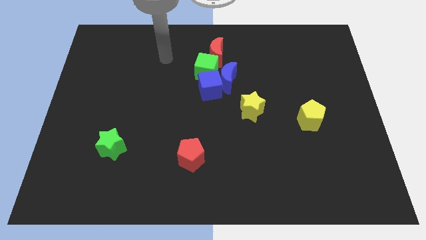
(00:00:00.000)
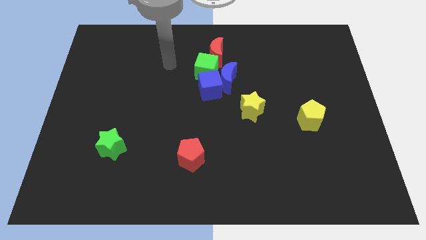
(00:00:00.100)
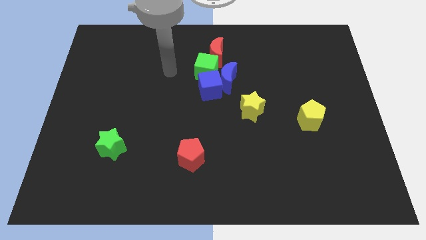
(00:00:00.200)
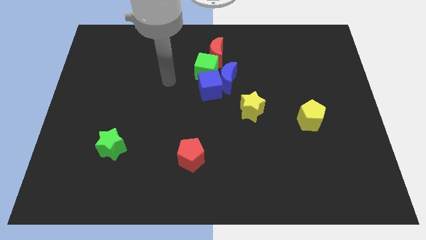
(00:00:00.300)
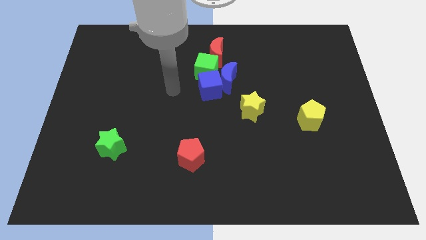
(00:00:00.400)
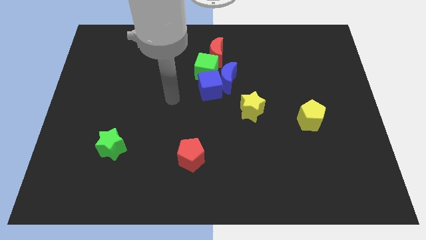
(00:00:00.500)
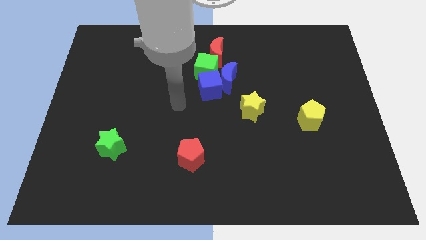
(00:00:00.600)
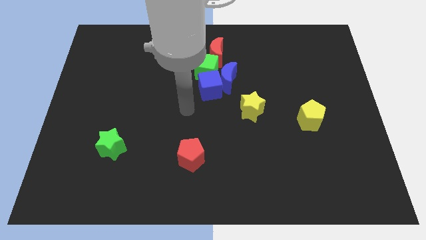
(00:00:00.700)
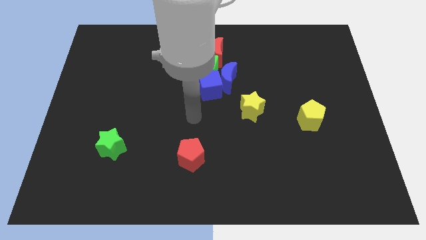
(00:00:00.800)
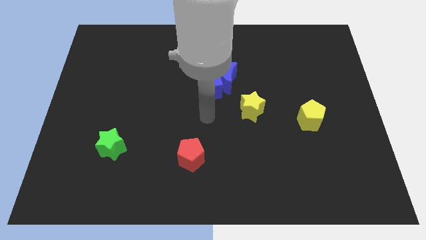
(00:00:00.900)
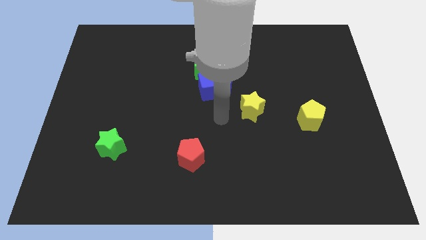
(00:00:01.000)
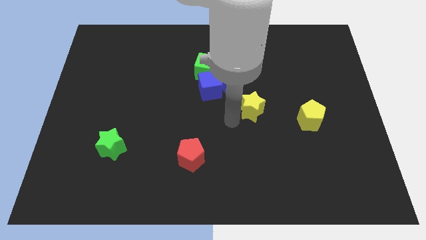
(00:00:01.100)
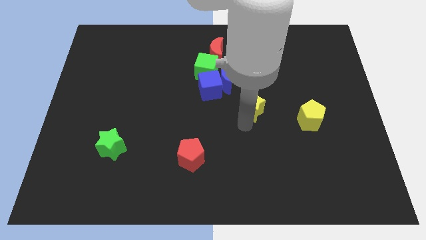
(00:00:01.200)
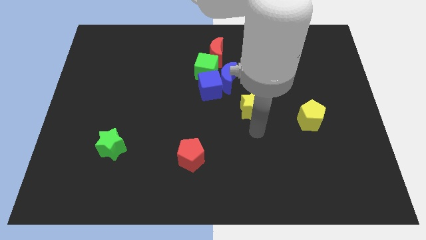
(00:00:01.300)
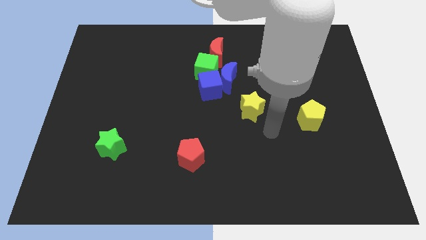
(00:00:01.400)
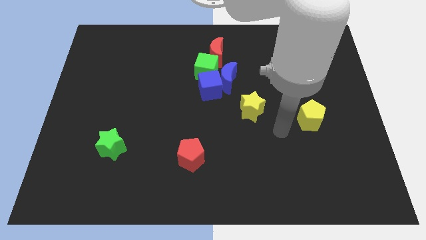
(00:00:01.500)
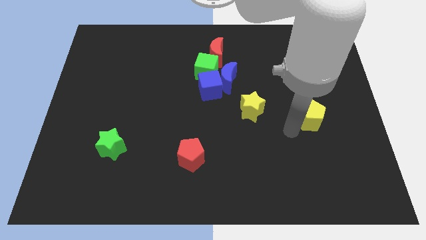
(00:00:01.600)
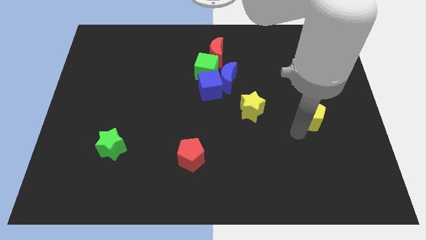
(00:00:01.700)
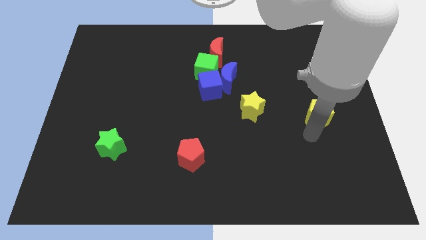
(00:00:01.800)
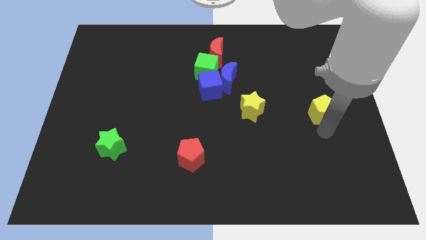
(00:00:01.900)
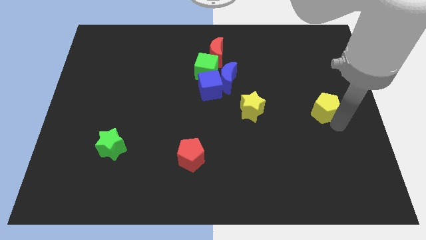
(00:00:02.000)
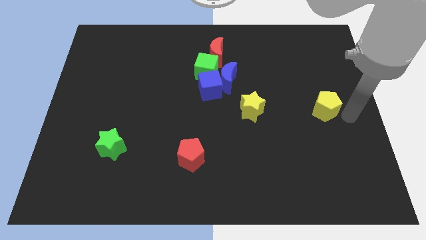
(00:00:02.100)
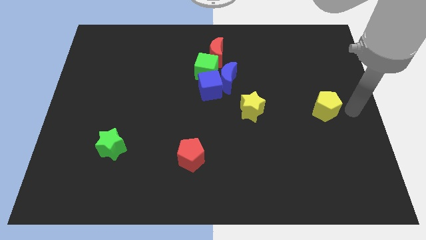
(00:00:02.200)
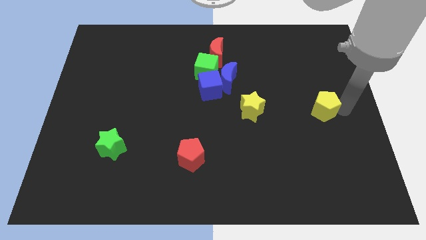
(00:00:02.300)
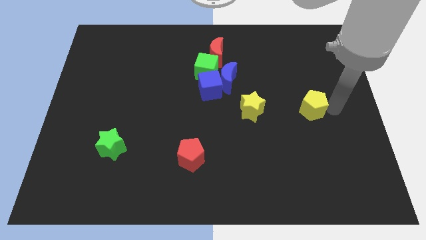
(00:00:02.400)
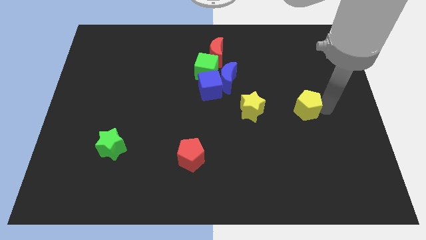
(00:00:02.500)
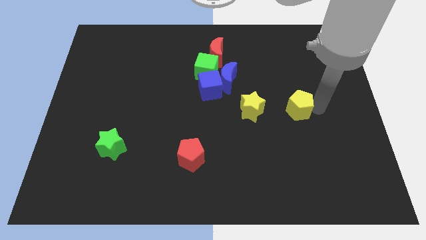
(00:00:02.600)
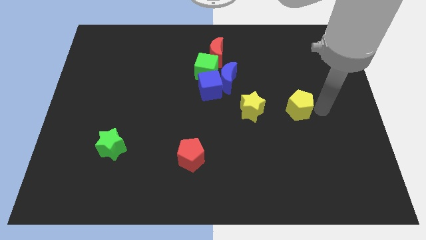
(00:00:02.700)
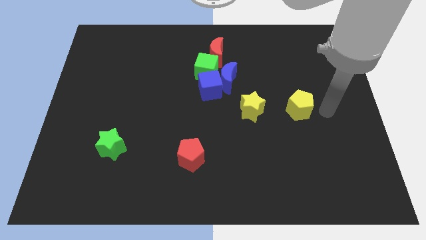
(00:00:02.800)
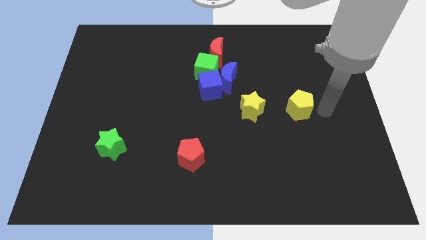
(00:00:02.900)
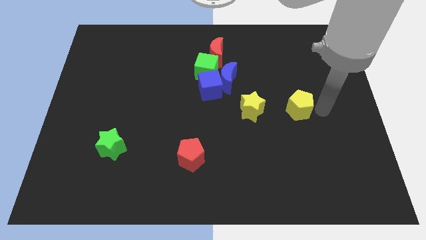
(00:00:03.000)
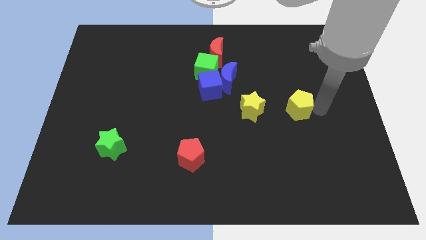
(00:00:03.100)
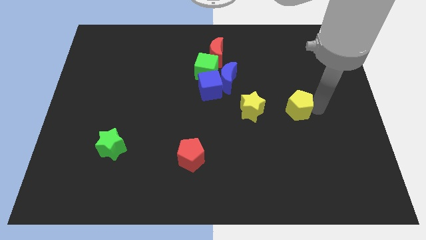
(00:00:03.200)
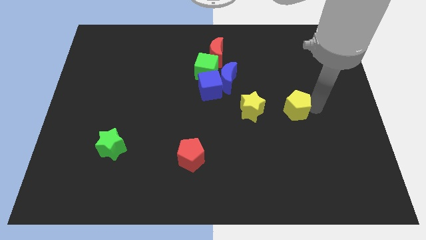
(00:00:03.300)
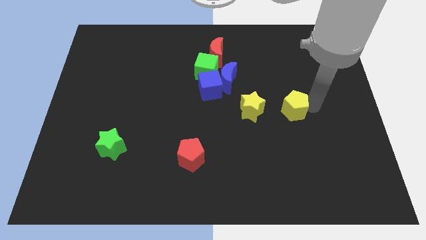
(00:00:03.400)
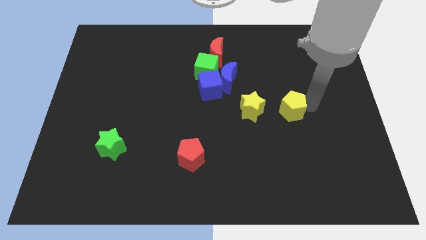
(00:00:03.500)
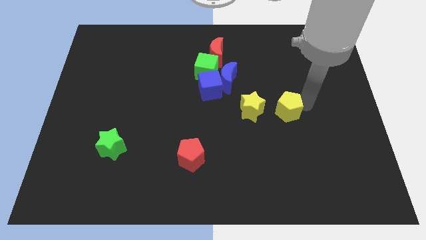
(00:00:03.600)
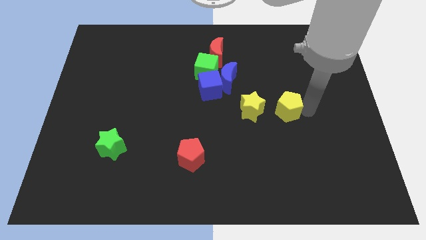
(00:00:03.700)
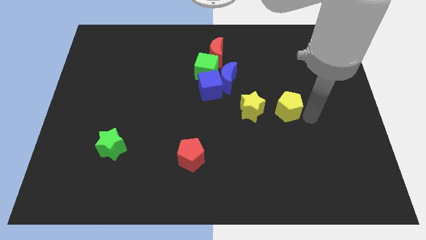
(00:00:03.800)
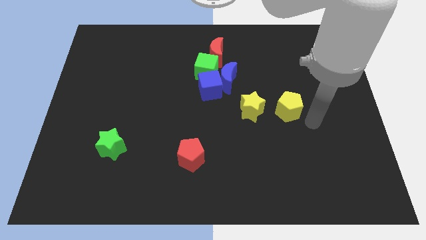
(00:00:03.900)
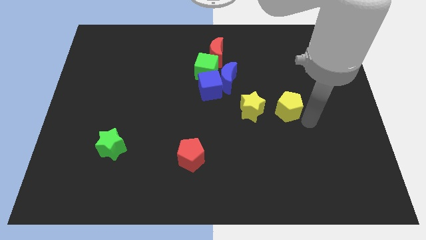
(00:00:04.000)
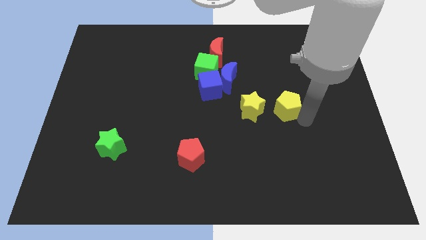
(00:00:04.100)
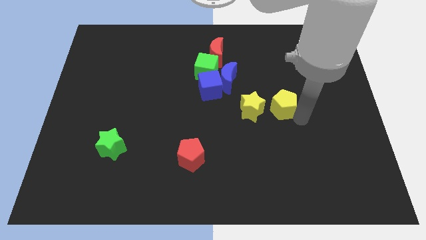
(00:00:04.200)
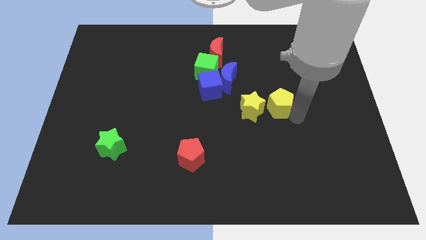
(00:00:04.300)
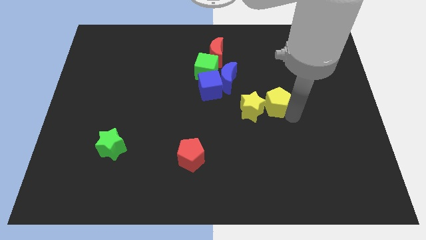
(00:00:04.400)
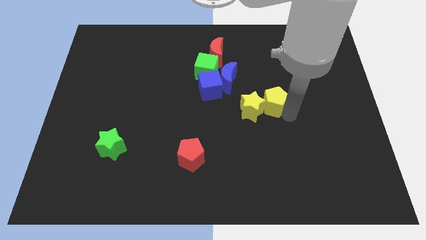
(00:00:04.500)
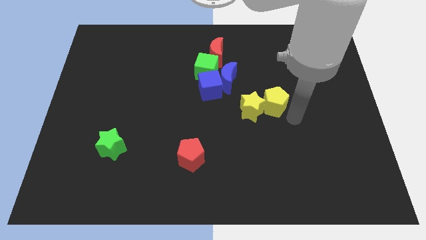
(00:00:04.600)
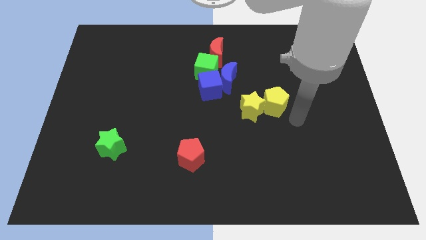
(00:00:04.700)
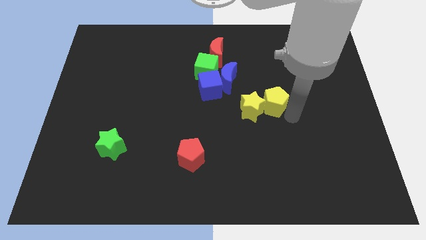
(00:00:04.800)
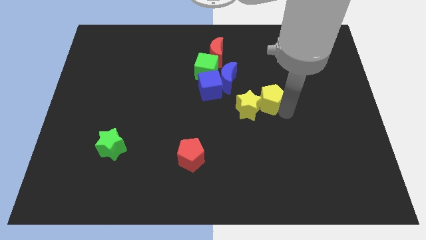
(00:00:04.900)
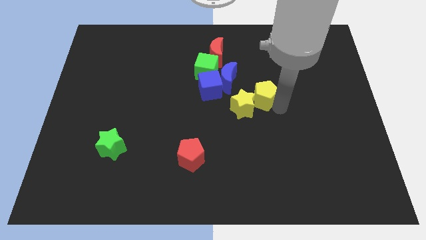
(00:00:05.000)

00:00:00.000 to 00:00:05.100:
put the yellow pentagon to the right side of the blue cube

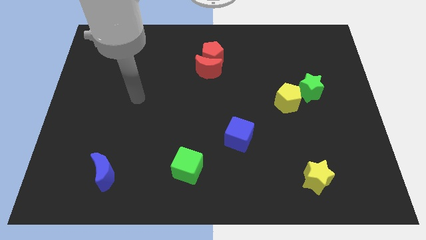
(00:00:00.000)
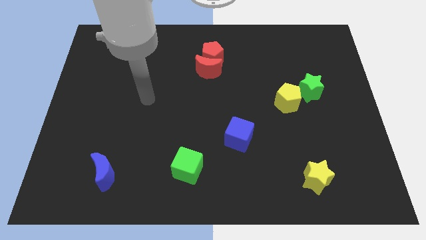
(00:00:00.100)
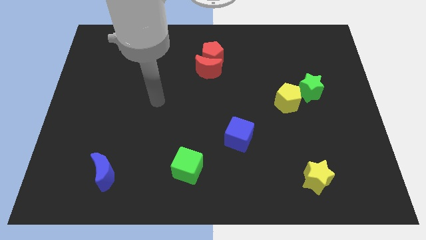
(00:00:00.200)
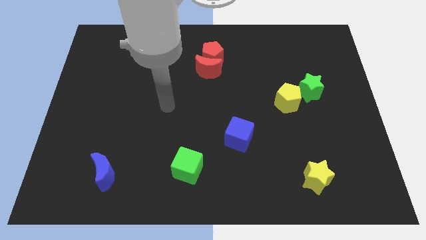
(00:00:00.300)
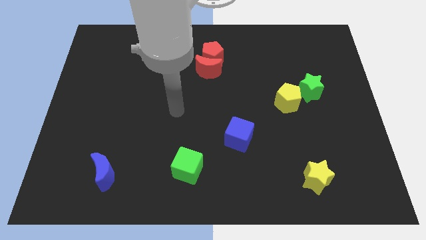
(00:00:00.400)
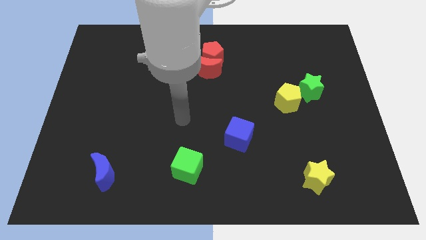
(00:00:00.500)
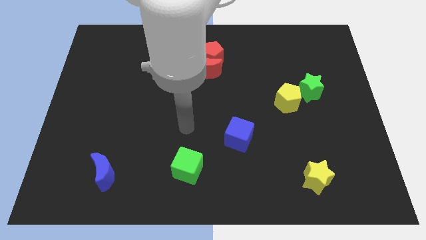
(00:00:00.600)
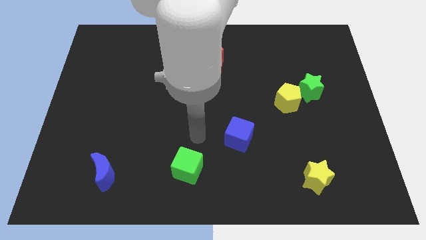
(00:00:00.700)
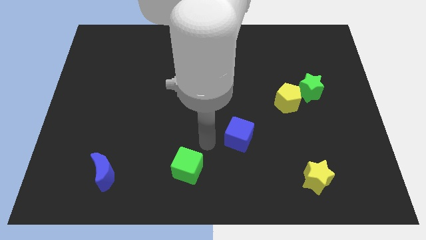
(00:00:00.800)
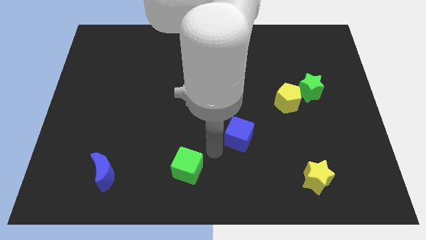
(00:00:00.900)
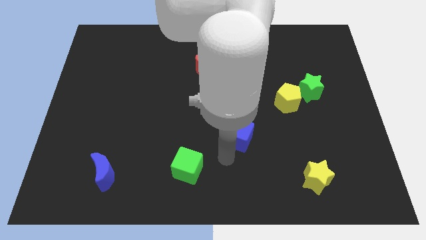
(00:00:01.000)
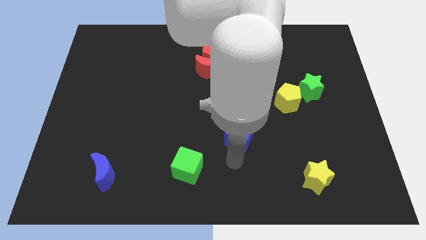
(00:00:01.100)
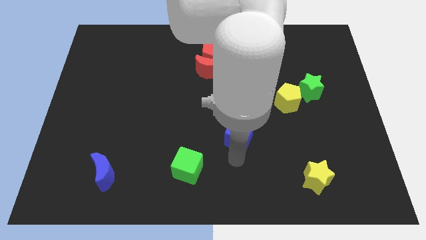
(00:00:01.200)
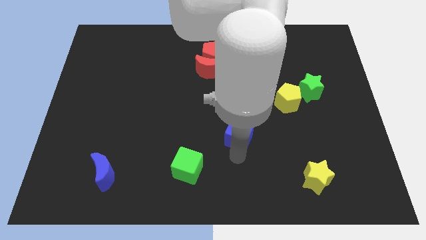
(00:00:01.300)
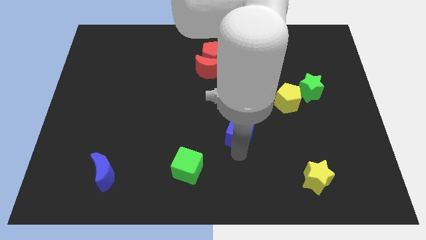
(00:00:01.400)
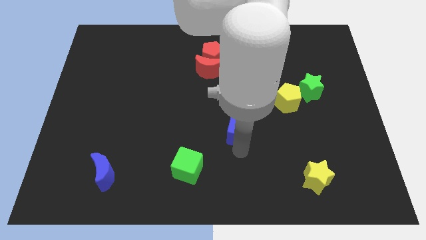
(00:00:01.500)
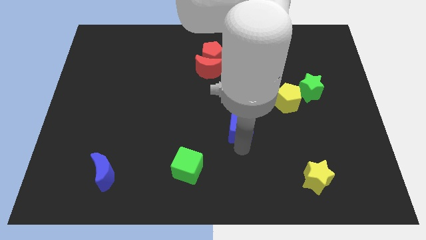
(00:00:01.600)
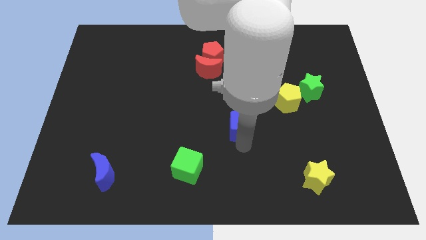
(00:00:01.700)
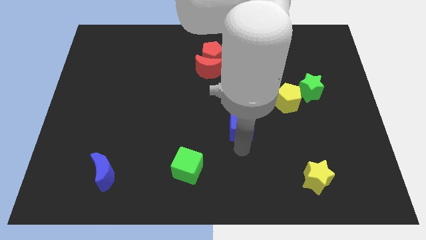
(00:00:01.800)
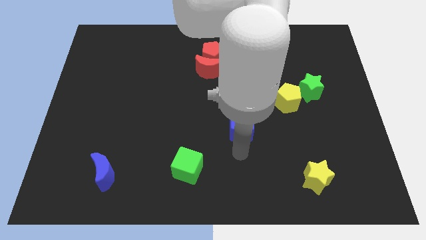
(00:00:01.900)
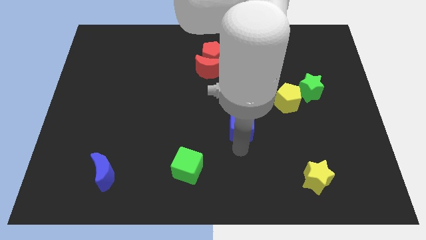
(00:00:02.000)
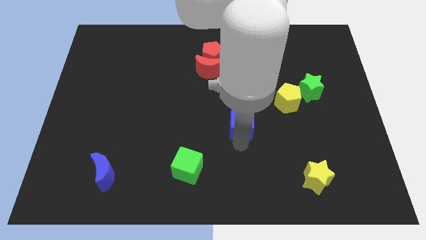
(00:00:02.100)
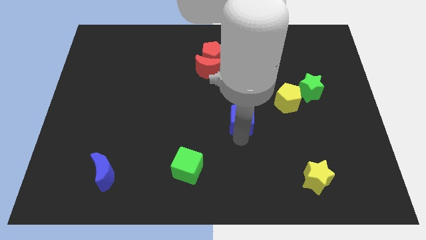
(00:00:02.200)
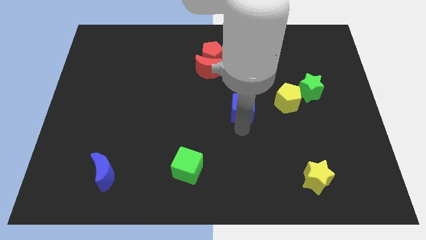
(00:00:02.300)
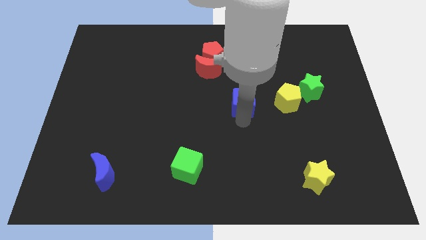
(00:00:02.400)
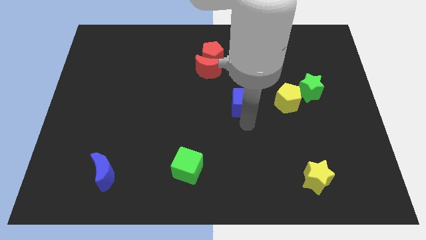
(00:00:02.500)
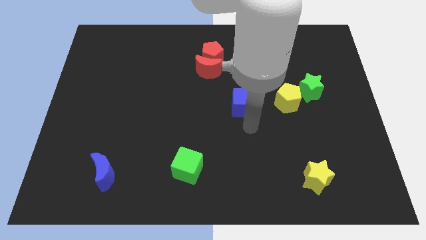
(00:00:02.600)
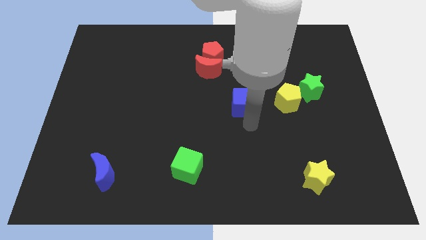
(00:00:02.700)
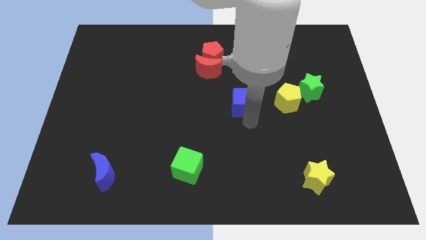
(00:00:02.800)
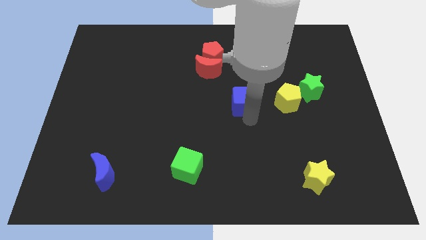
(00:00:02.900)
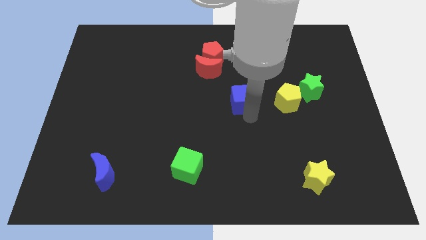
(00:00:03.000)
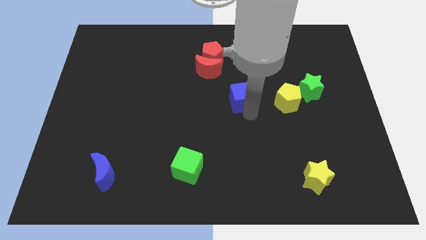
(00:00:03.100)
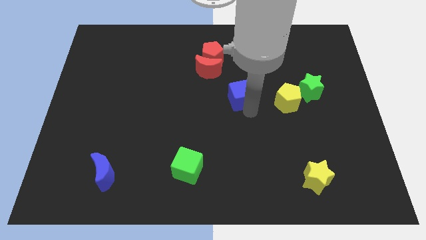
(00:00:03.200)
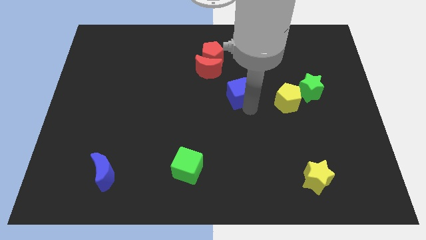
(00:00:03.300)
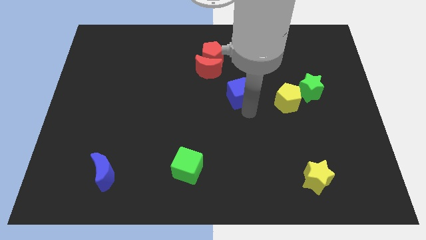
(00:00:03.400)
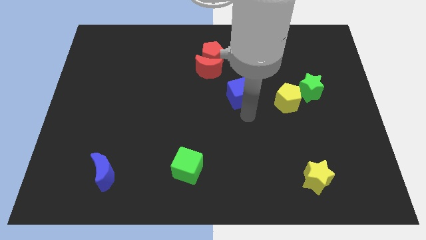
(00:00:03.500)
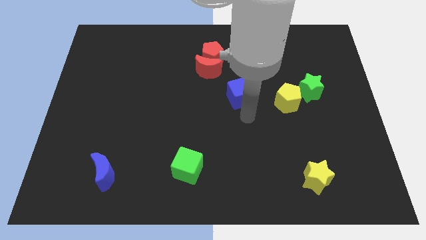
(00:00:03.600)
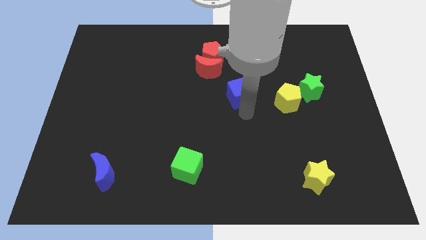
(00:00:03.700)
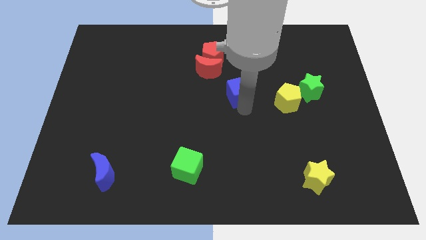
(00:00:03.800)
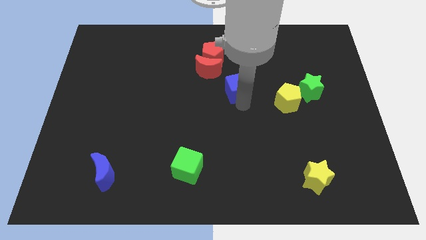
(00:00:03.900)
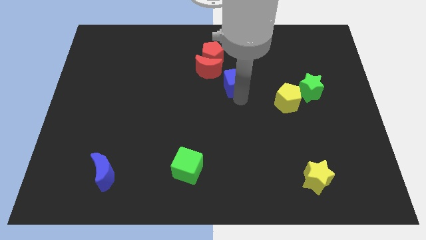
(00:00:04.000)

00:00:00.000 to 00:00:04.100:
slide the blue cube to the bottom right side of the red pentagon
